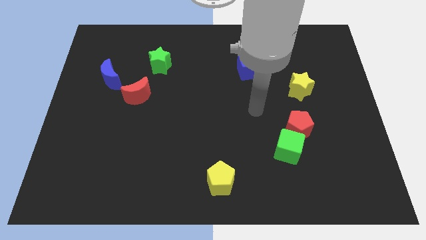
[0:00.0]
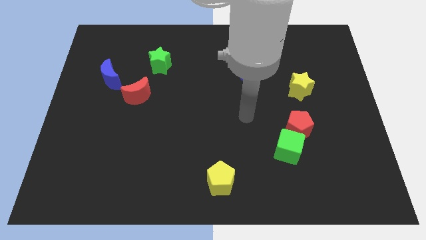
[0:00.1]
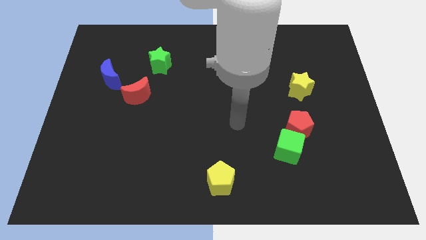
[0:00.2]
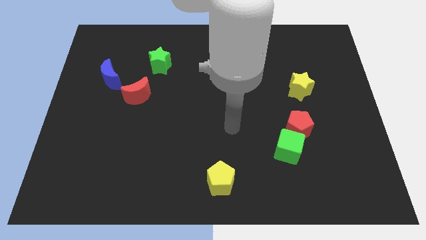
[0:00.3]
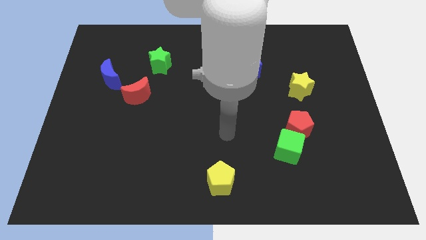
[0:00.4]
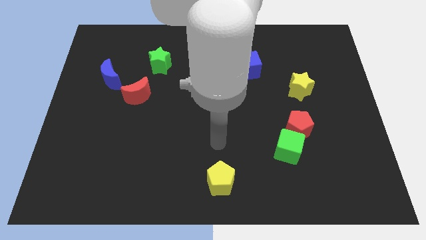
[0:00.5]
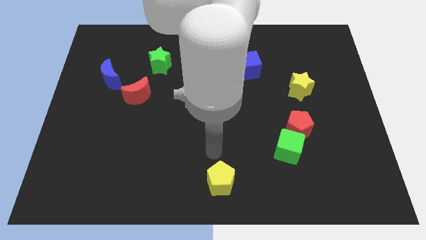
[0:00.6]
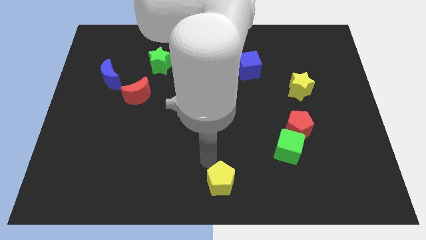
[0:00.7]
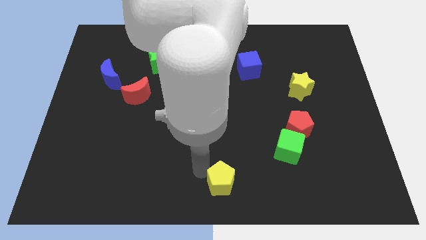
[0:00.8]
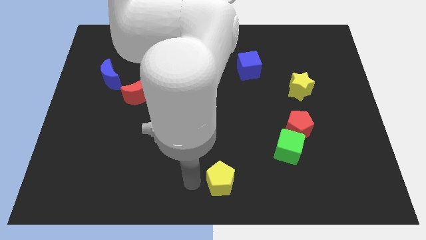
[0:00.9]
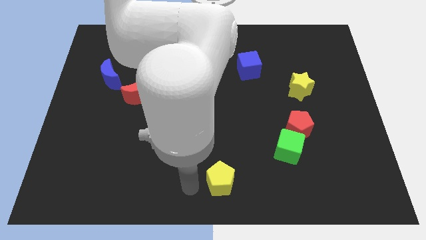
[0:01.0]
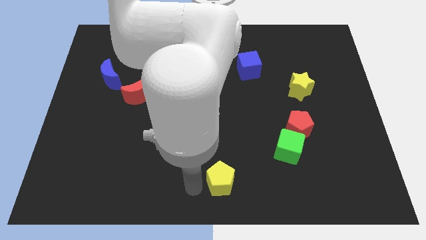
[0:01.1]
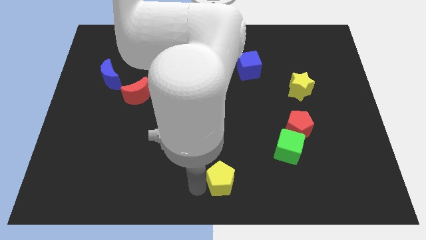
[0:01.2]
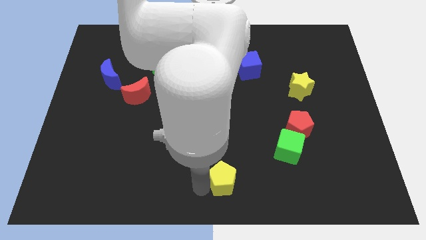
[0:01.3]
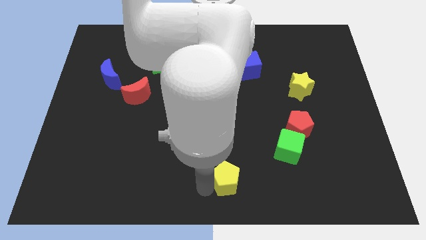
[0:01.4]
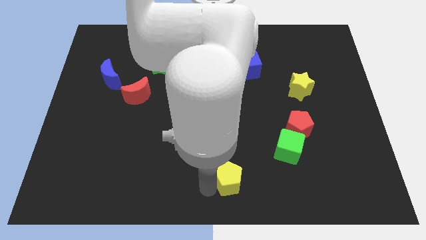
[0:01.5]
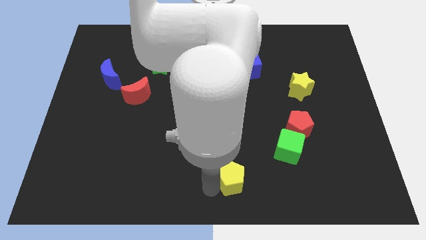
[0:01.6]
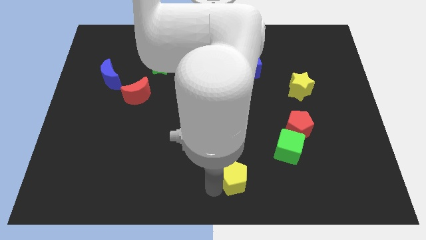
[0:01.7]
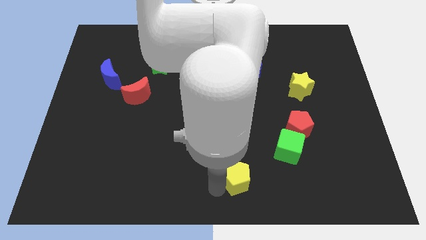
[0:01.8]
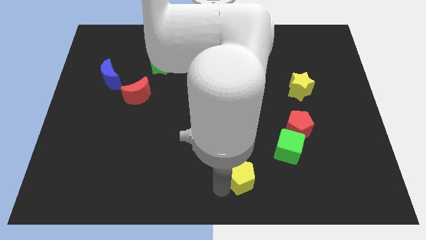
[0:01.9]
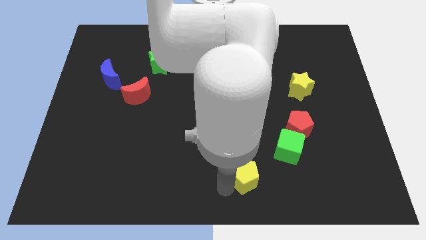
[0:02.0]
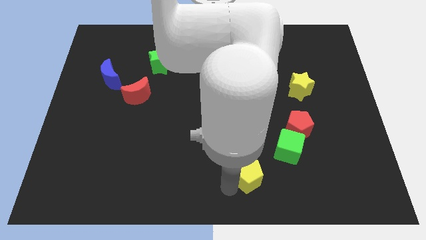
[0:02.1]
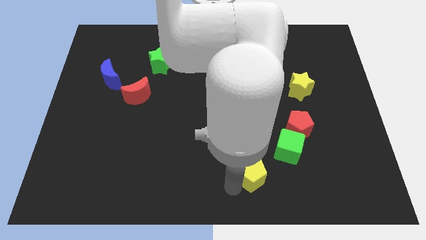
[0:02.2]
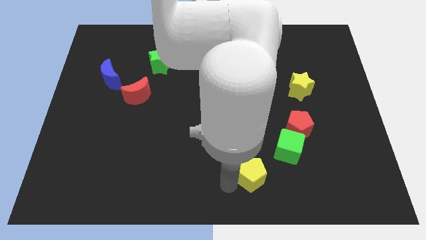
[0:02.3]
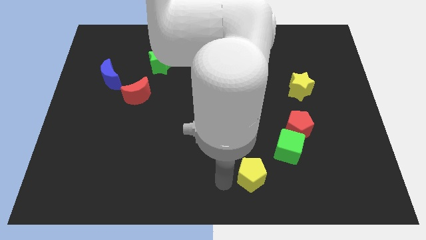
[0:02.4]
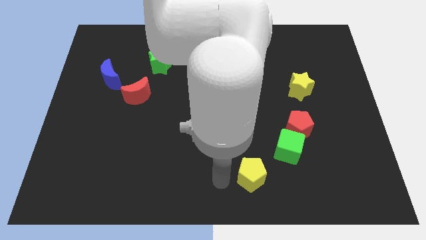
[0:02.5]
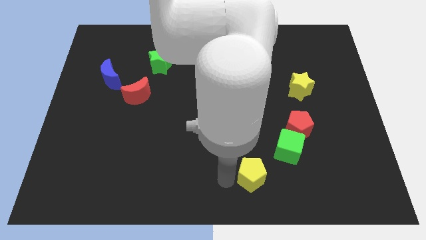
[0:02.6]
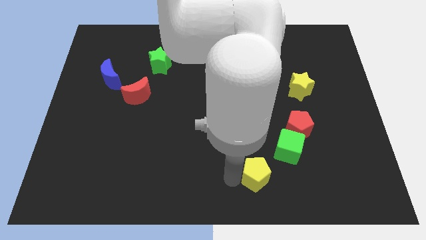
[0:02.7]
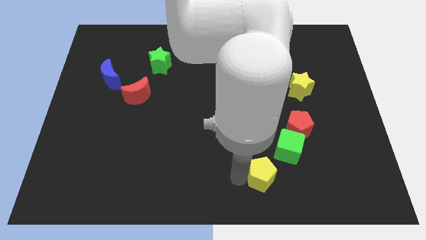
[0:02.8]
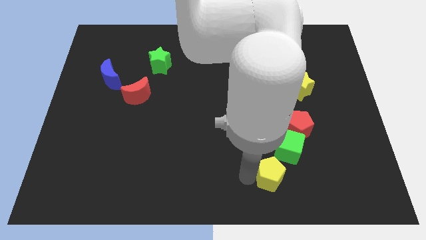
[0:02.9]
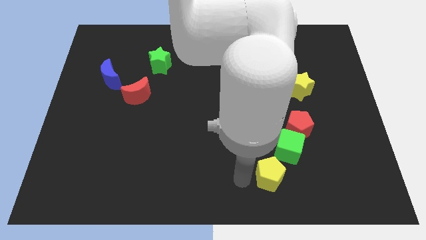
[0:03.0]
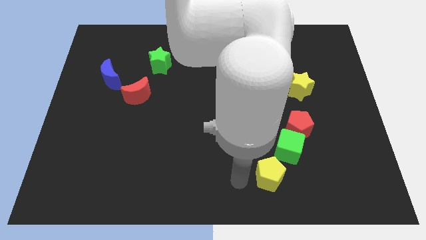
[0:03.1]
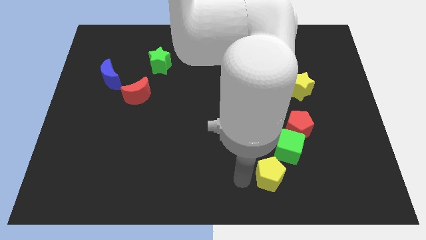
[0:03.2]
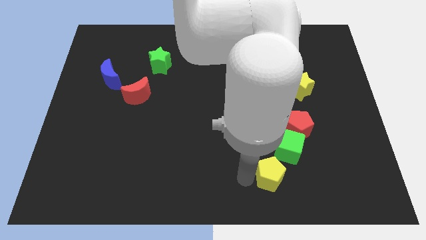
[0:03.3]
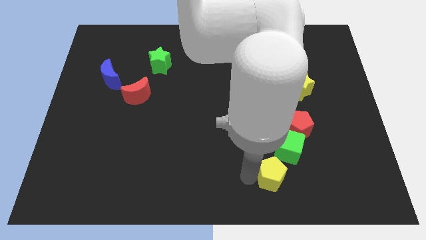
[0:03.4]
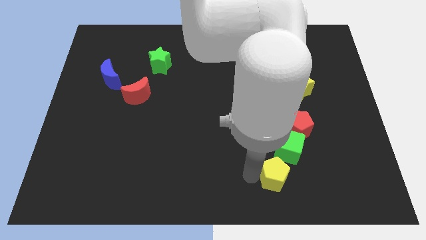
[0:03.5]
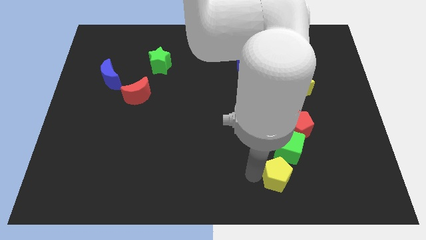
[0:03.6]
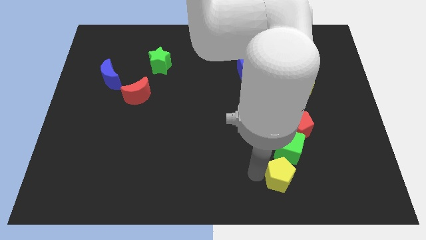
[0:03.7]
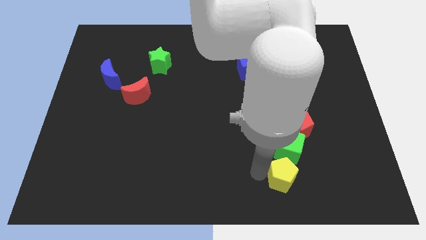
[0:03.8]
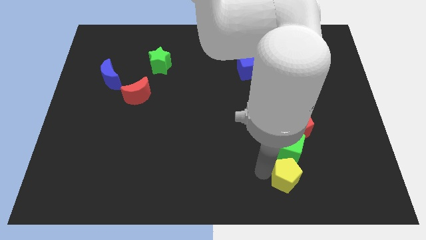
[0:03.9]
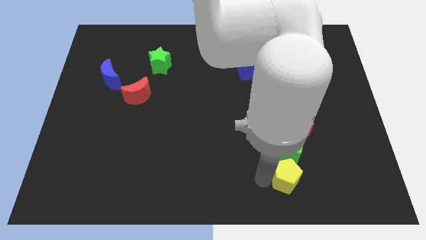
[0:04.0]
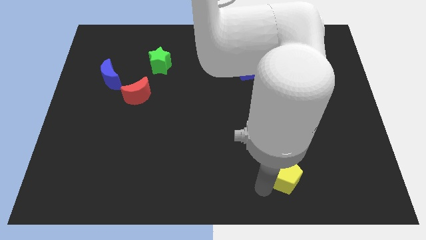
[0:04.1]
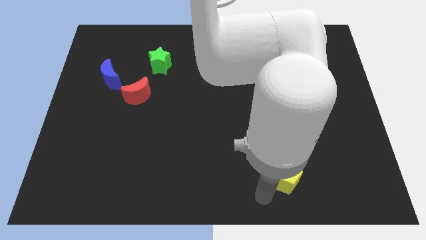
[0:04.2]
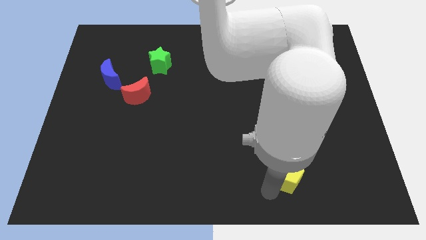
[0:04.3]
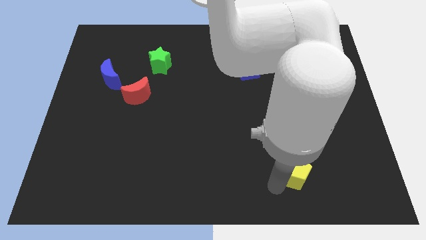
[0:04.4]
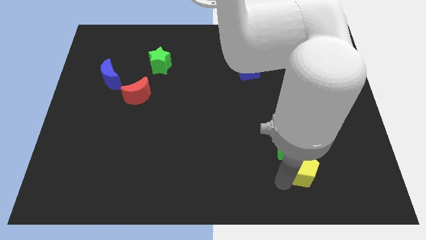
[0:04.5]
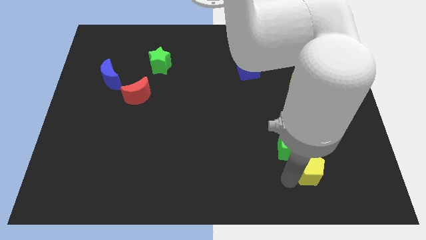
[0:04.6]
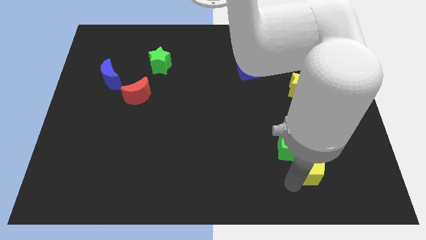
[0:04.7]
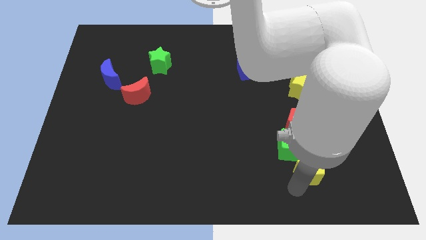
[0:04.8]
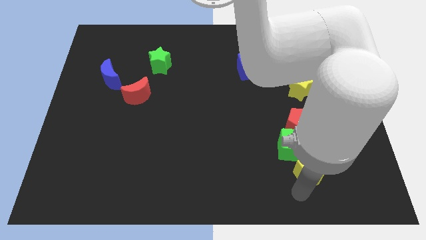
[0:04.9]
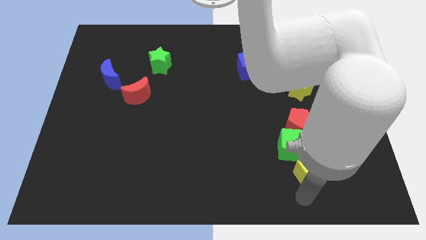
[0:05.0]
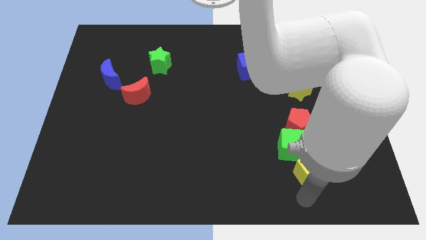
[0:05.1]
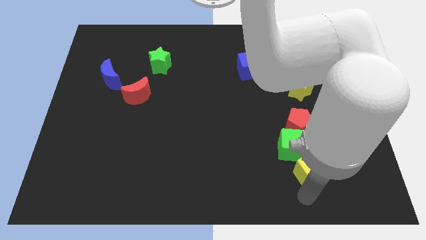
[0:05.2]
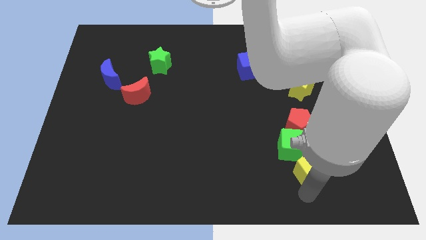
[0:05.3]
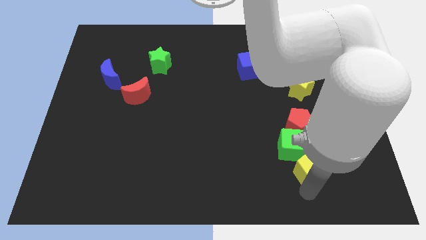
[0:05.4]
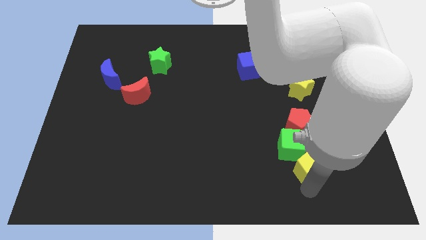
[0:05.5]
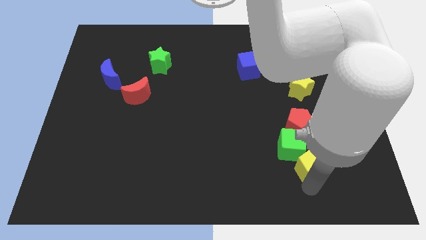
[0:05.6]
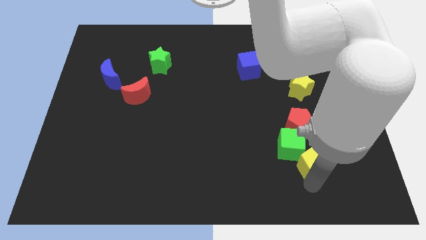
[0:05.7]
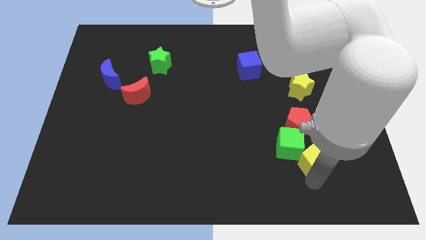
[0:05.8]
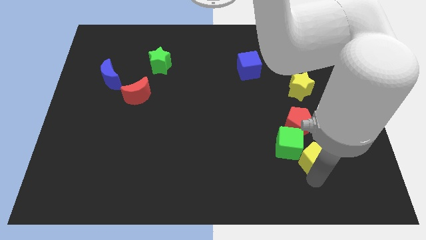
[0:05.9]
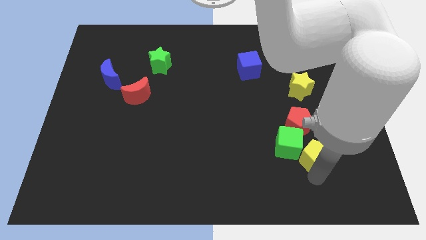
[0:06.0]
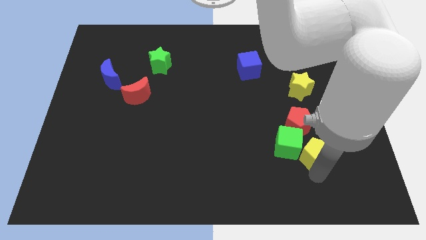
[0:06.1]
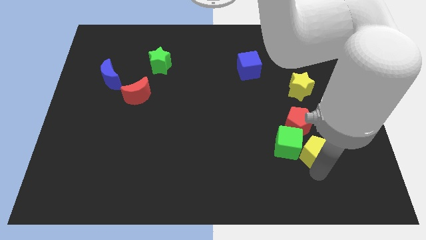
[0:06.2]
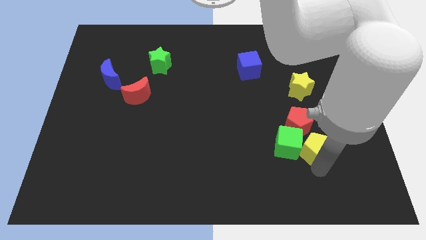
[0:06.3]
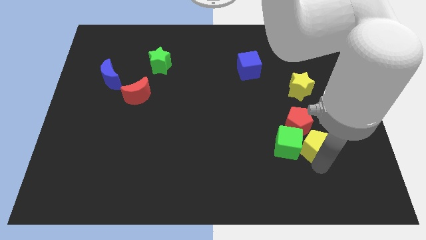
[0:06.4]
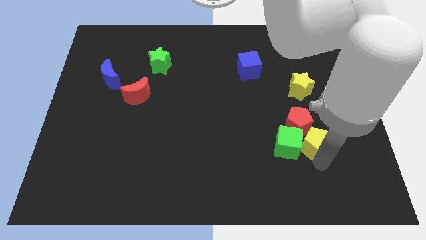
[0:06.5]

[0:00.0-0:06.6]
slide the yellow pentagon below the yellow star

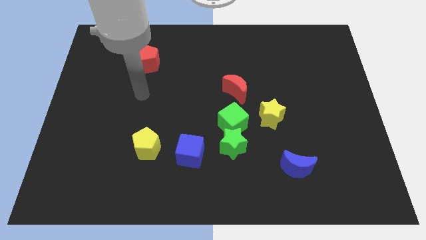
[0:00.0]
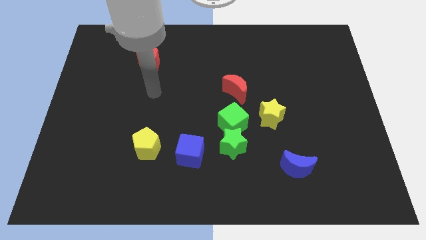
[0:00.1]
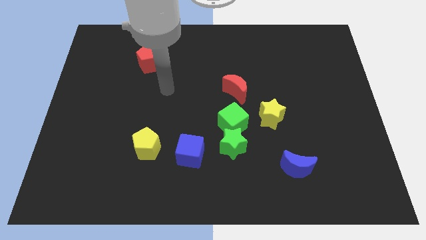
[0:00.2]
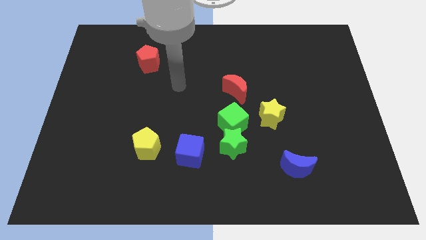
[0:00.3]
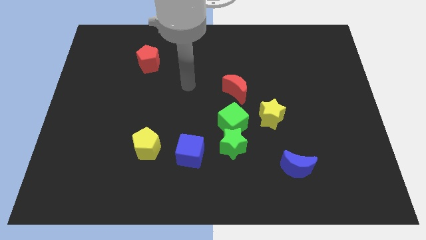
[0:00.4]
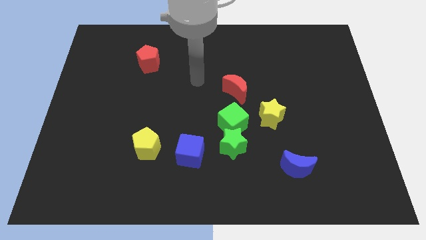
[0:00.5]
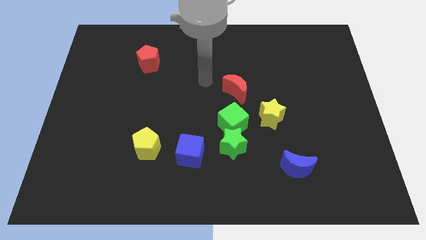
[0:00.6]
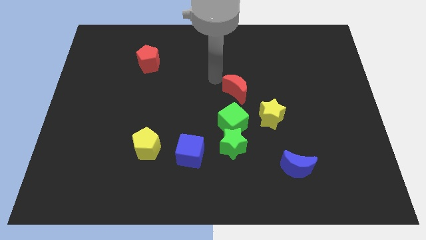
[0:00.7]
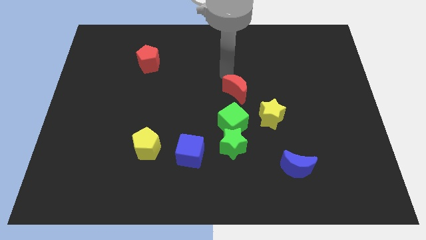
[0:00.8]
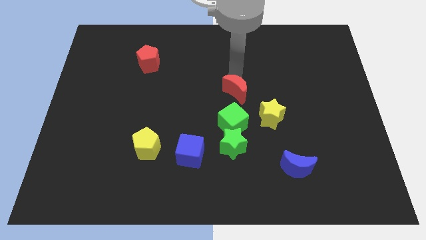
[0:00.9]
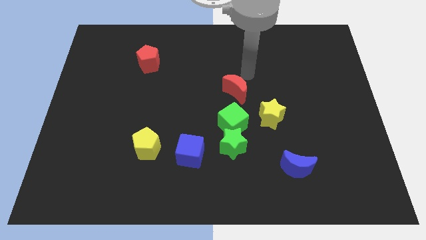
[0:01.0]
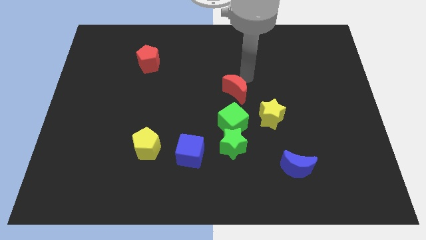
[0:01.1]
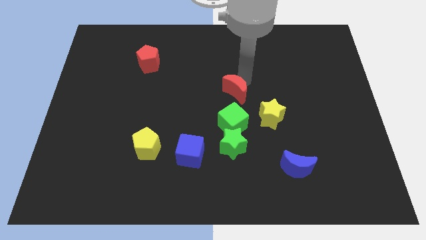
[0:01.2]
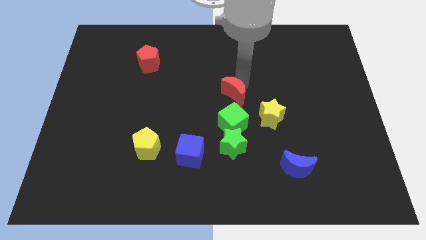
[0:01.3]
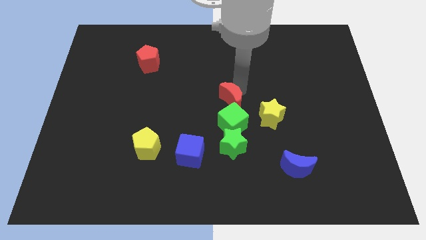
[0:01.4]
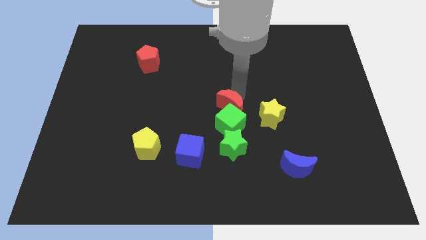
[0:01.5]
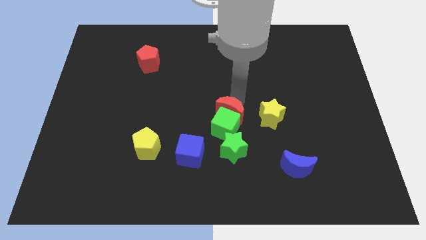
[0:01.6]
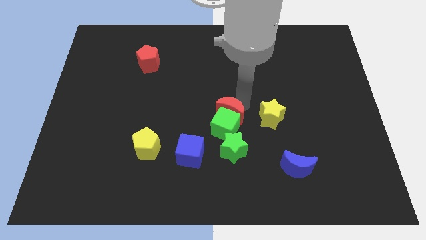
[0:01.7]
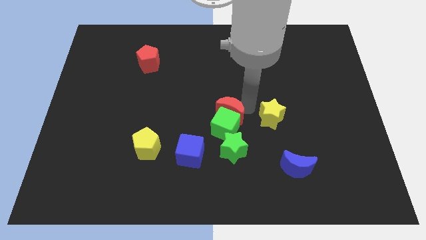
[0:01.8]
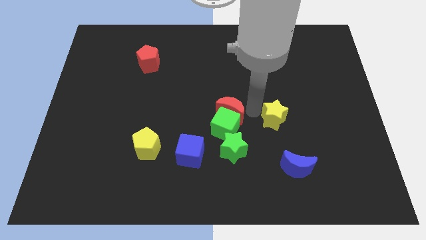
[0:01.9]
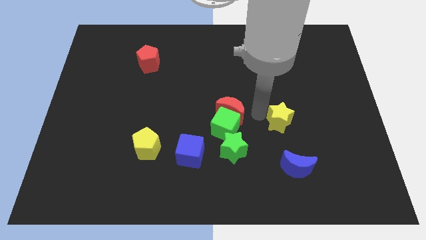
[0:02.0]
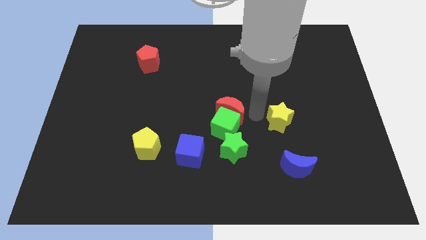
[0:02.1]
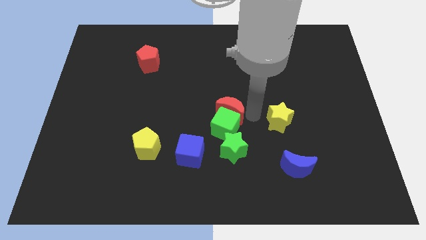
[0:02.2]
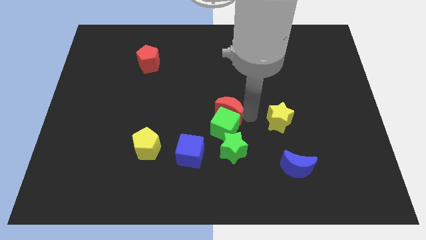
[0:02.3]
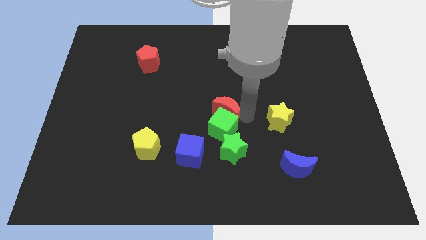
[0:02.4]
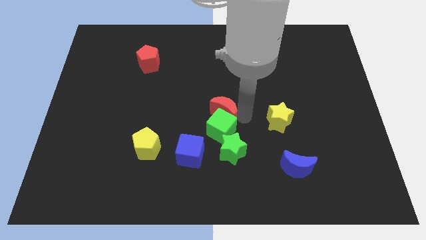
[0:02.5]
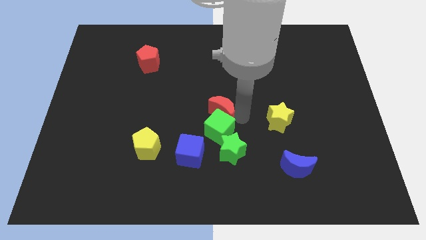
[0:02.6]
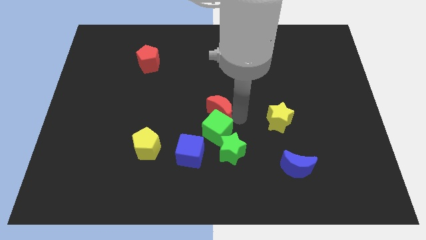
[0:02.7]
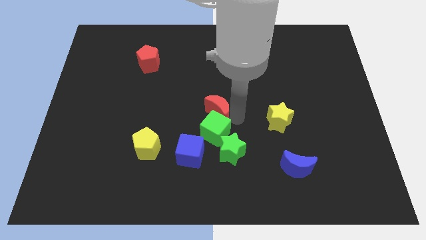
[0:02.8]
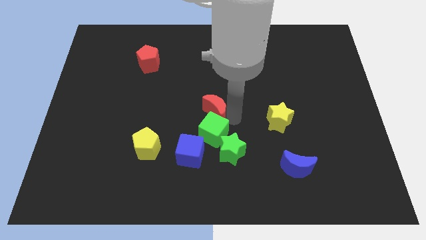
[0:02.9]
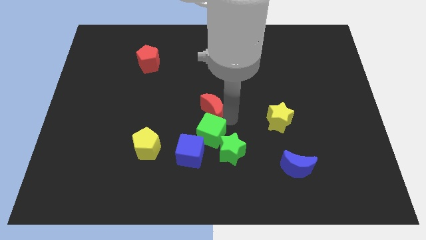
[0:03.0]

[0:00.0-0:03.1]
push the red moon to the top side of the blue cube
